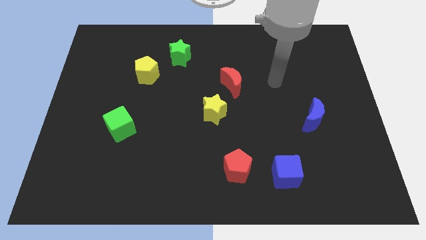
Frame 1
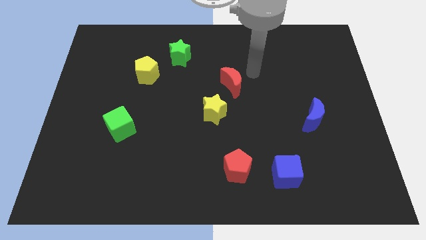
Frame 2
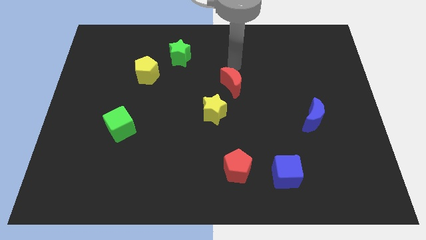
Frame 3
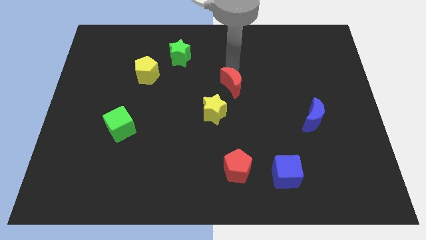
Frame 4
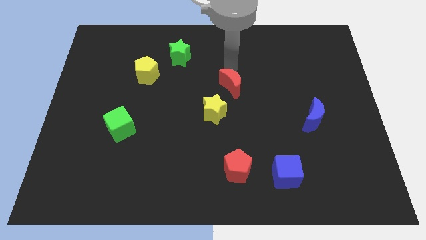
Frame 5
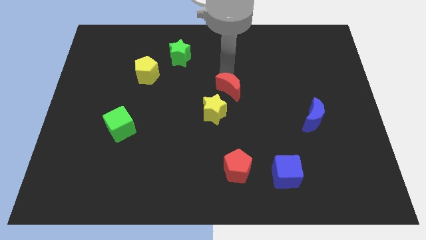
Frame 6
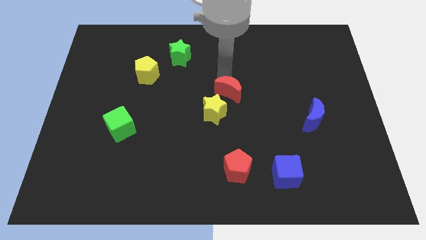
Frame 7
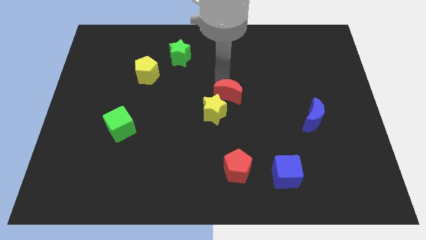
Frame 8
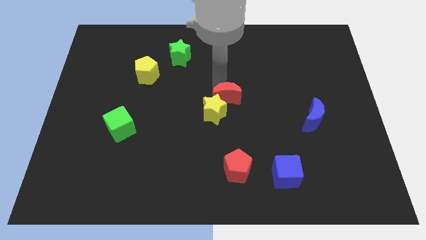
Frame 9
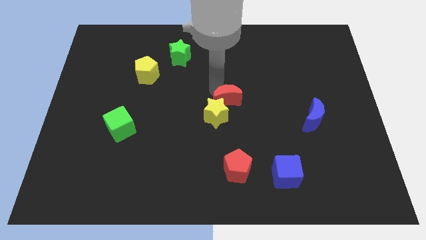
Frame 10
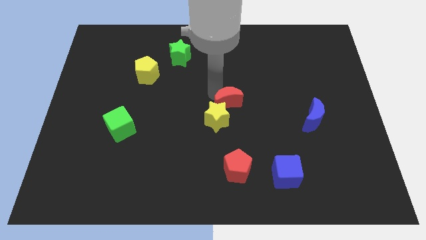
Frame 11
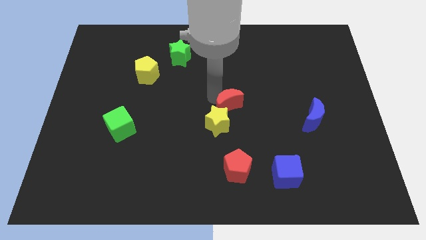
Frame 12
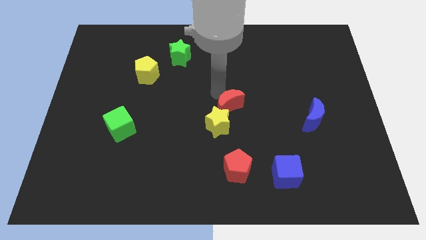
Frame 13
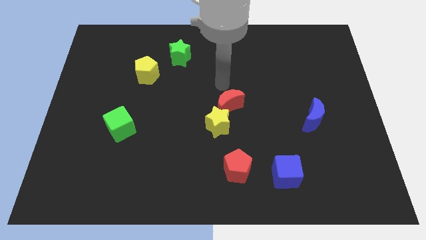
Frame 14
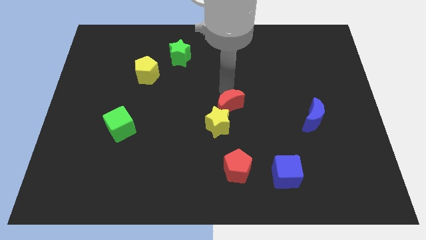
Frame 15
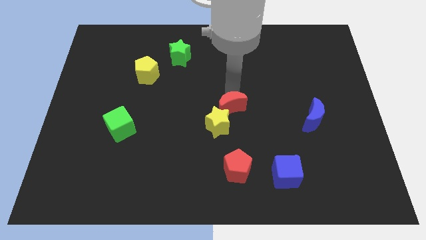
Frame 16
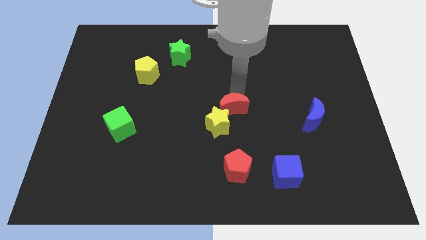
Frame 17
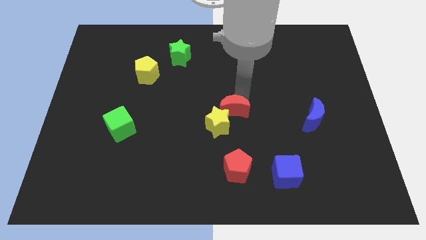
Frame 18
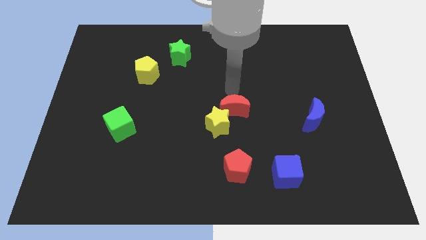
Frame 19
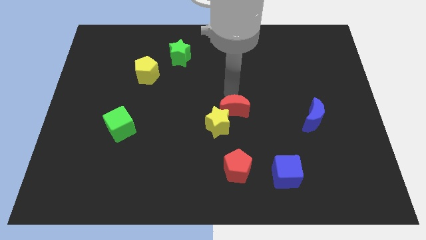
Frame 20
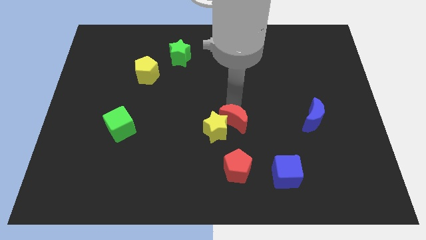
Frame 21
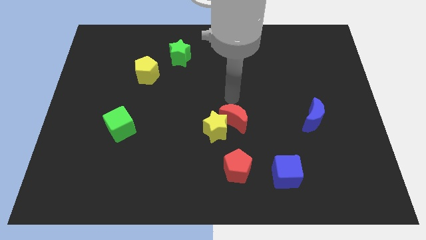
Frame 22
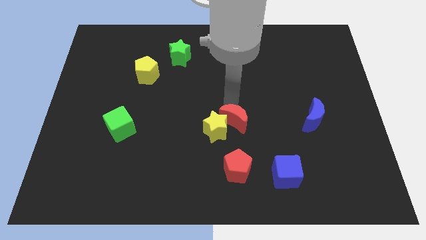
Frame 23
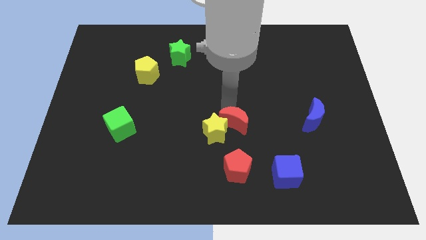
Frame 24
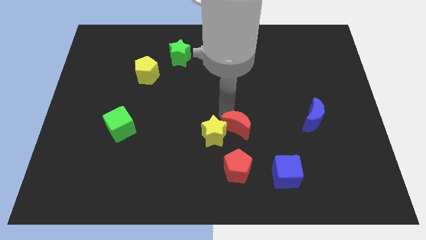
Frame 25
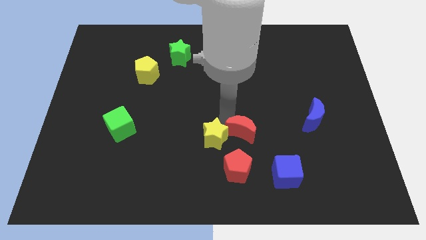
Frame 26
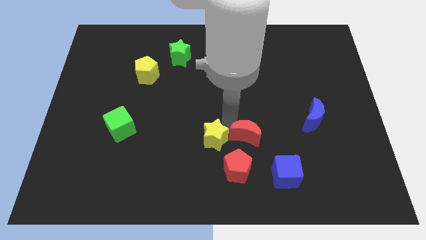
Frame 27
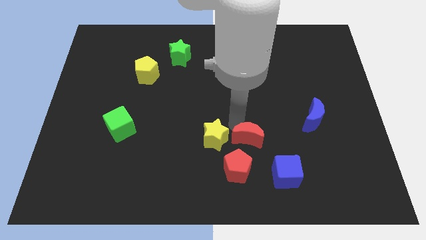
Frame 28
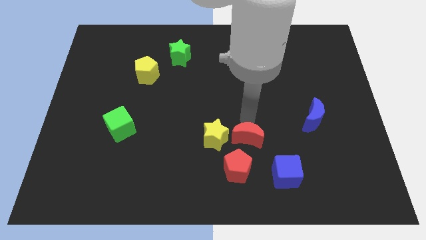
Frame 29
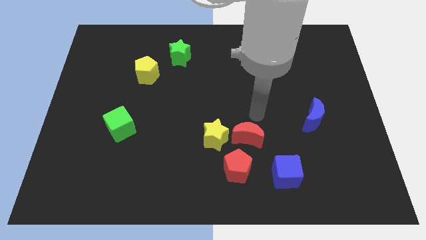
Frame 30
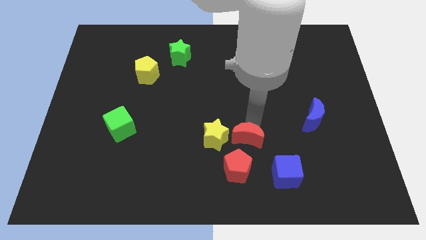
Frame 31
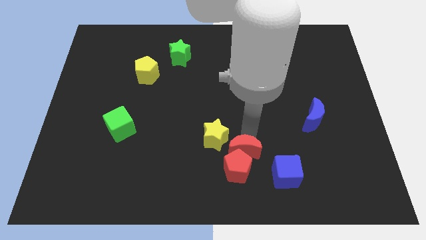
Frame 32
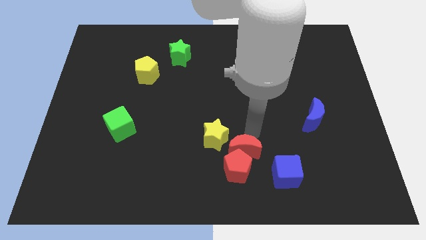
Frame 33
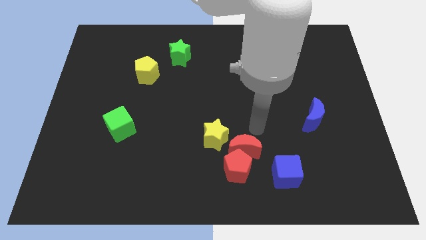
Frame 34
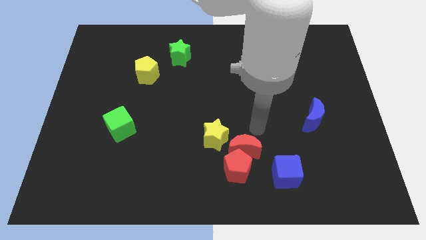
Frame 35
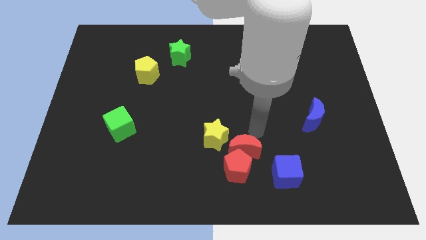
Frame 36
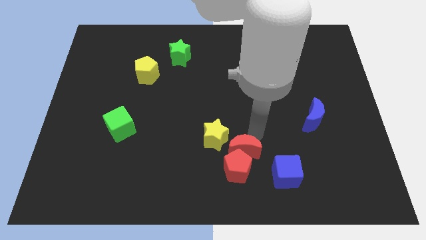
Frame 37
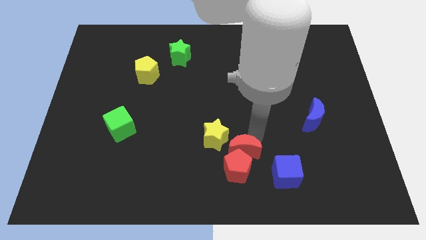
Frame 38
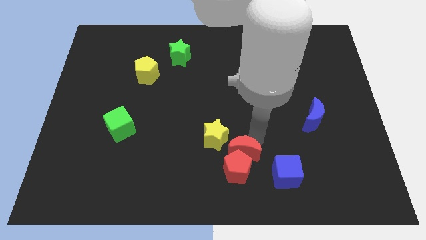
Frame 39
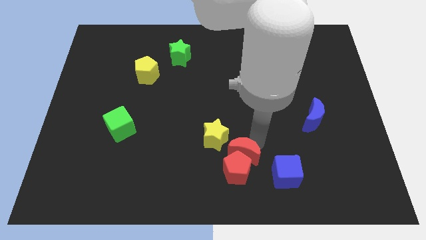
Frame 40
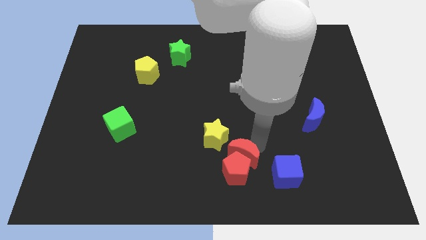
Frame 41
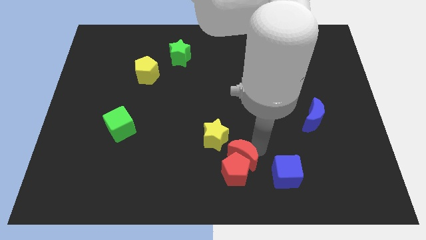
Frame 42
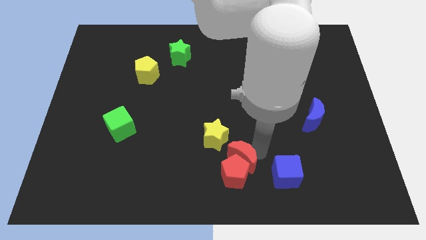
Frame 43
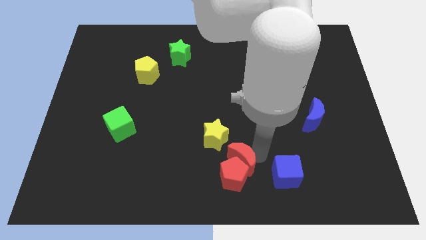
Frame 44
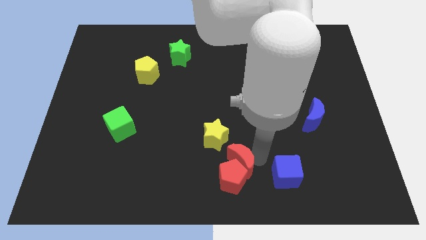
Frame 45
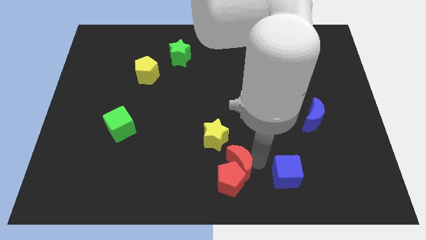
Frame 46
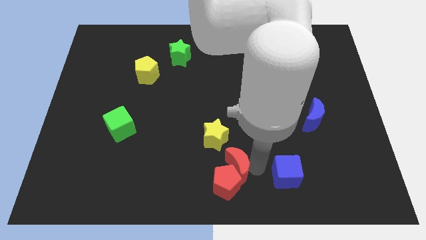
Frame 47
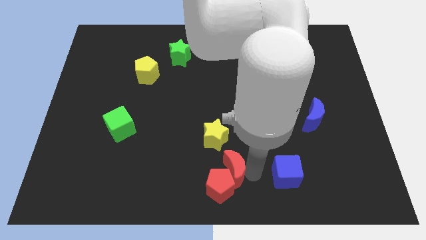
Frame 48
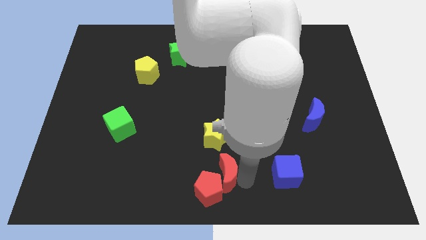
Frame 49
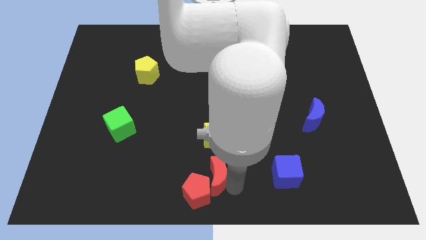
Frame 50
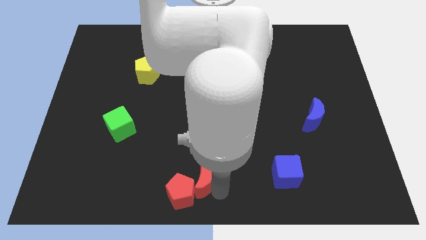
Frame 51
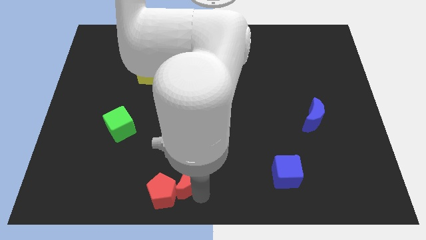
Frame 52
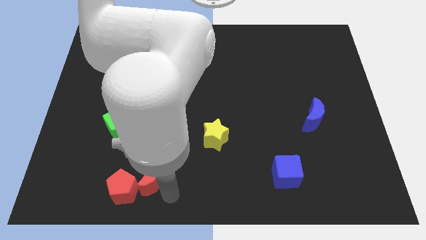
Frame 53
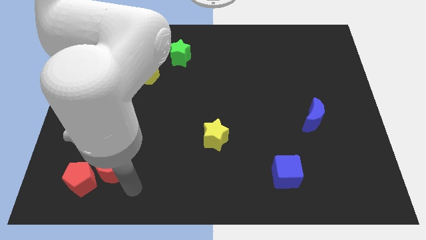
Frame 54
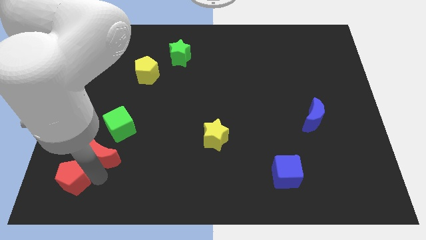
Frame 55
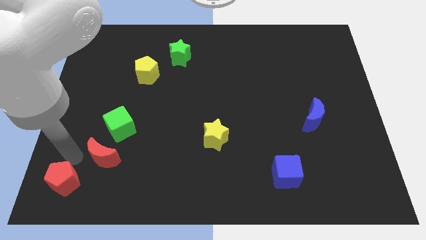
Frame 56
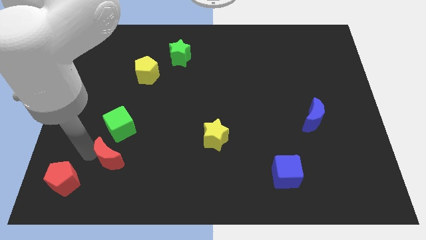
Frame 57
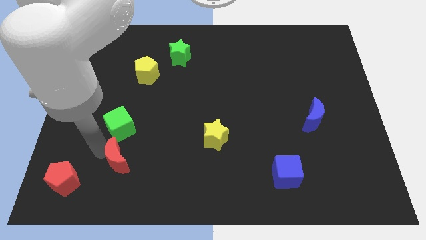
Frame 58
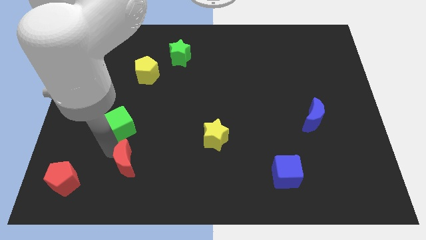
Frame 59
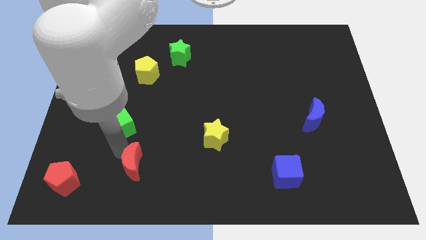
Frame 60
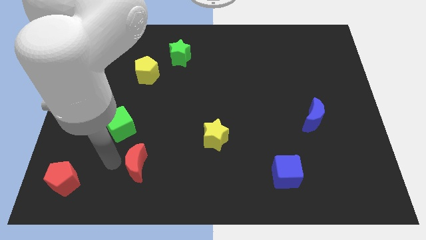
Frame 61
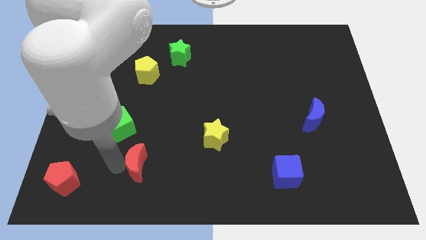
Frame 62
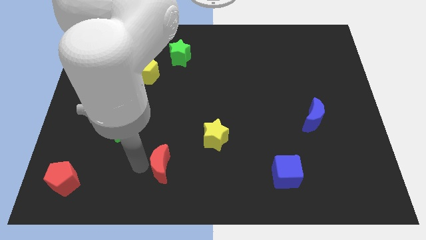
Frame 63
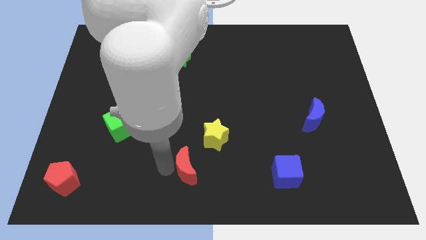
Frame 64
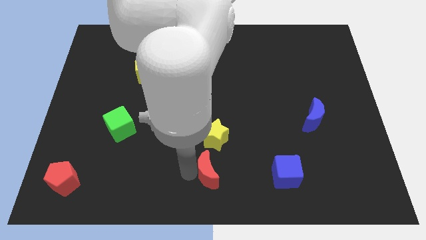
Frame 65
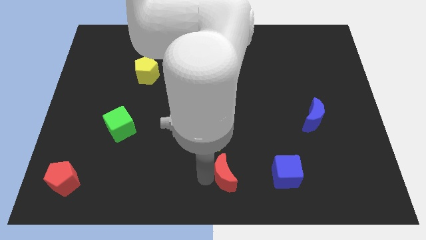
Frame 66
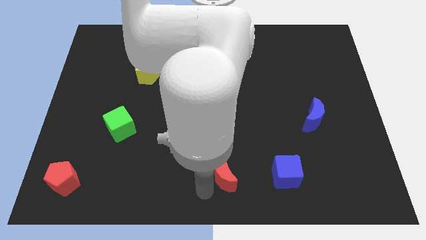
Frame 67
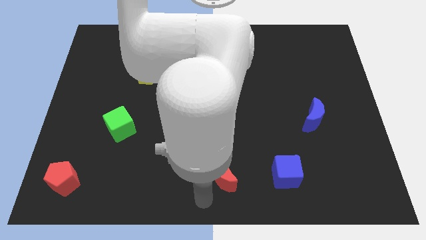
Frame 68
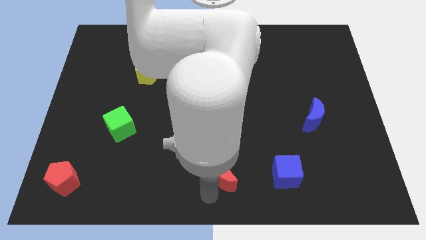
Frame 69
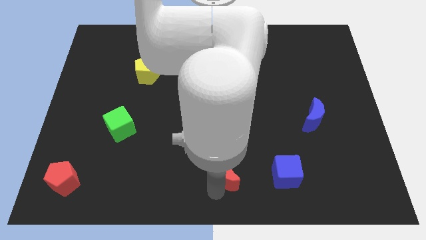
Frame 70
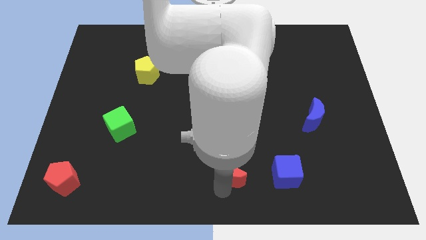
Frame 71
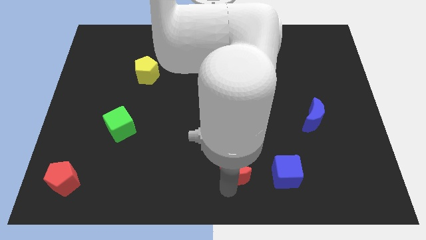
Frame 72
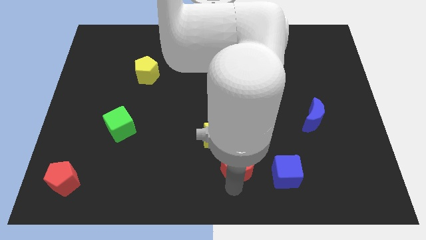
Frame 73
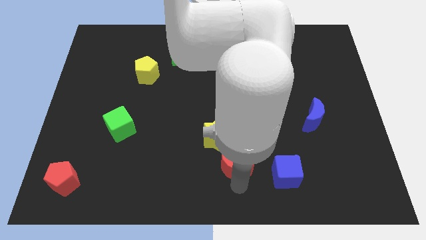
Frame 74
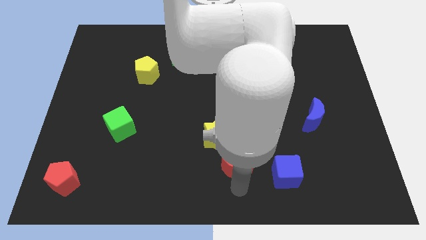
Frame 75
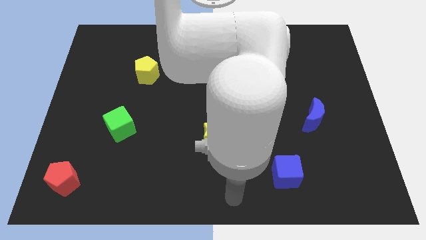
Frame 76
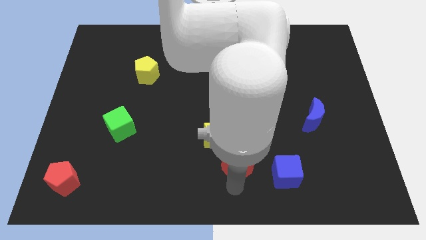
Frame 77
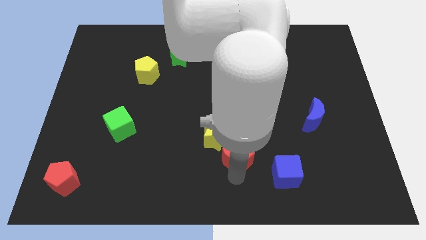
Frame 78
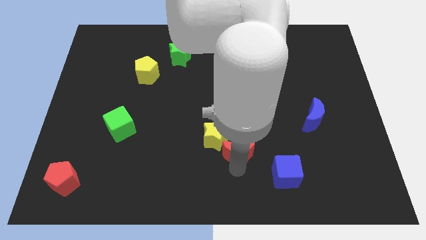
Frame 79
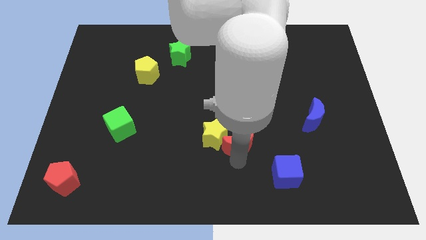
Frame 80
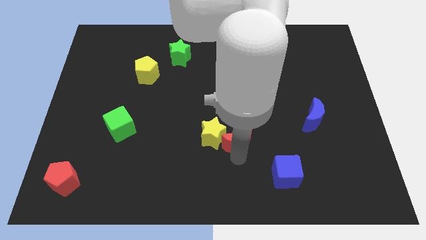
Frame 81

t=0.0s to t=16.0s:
slide the red moon to the bottom right side of the yellow star
